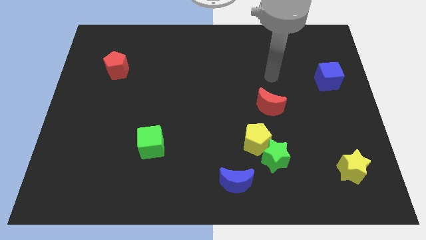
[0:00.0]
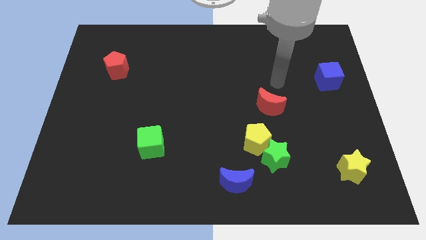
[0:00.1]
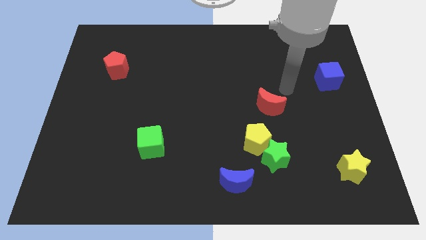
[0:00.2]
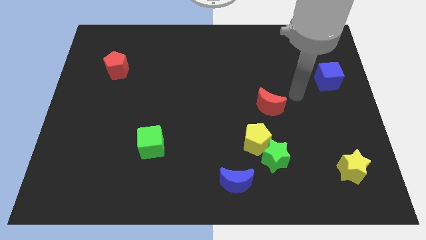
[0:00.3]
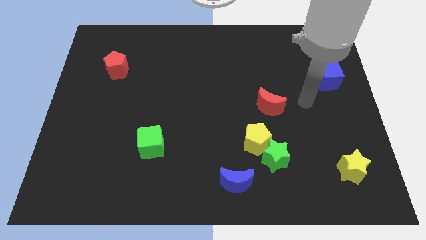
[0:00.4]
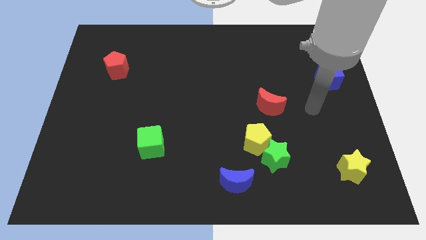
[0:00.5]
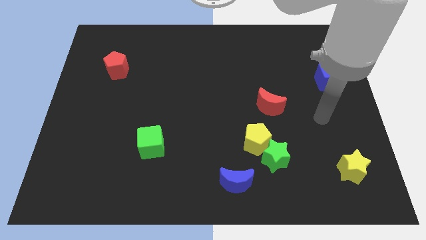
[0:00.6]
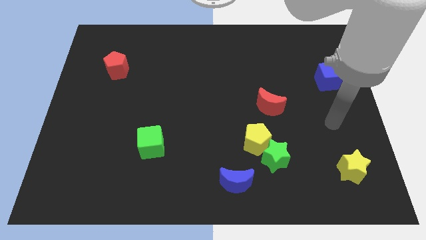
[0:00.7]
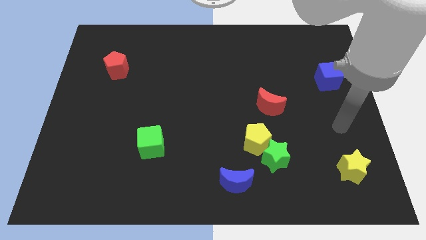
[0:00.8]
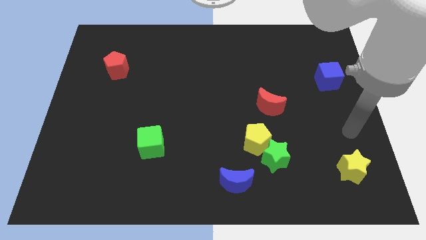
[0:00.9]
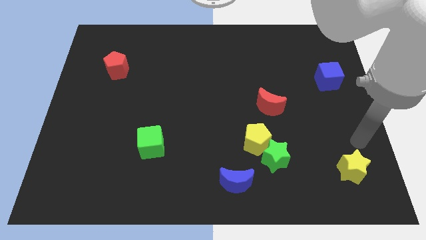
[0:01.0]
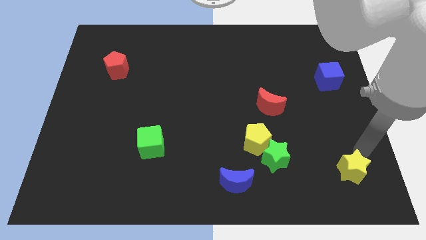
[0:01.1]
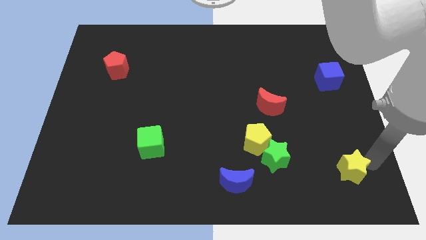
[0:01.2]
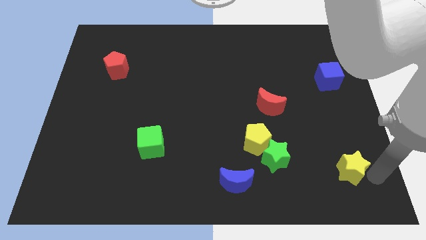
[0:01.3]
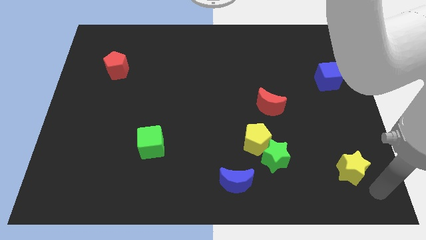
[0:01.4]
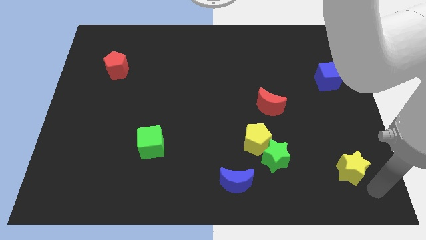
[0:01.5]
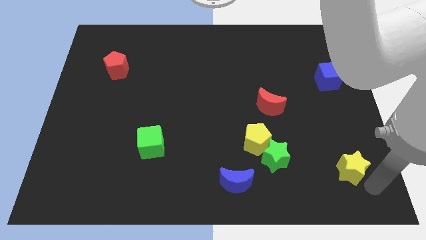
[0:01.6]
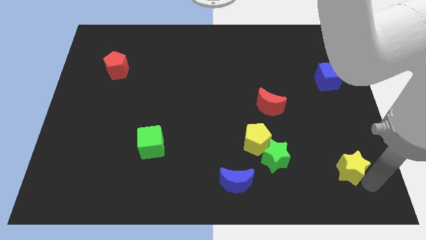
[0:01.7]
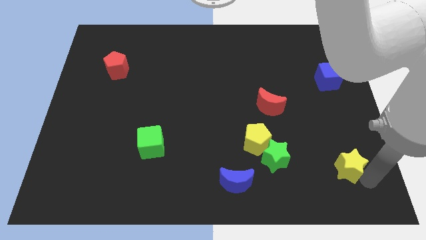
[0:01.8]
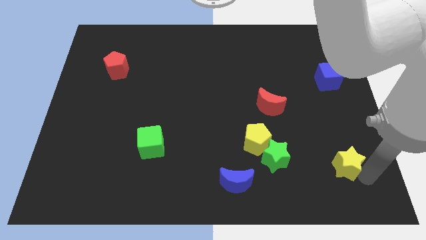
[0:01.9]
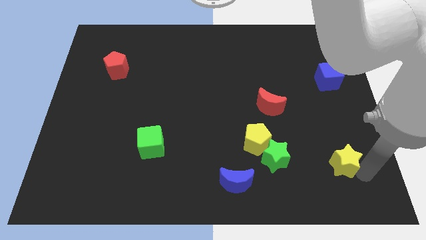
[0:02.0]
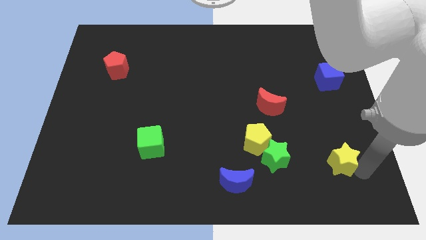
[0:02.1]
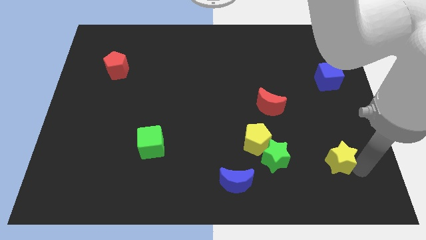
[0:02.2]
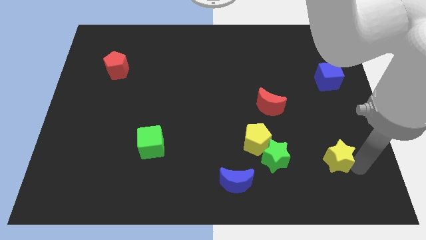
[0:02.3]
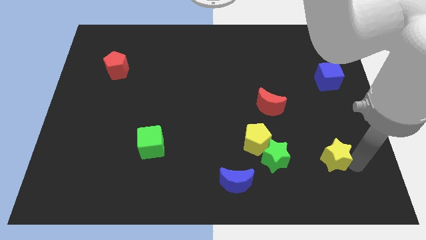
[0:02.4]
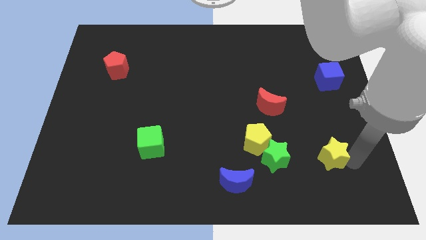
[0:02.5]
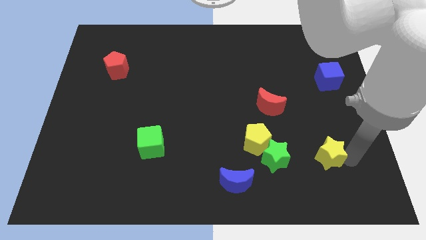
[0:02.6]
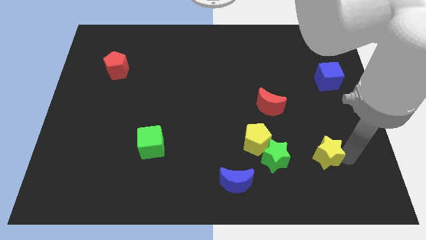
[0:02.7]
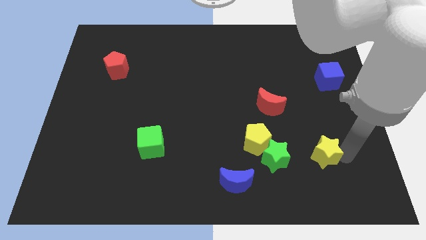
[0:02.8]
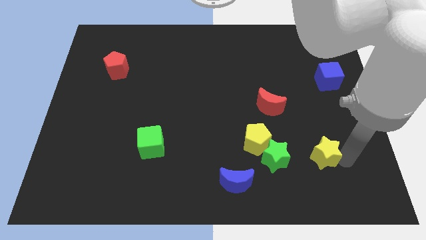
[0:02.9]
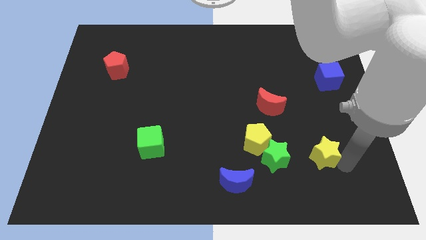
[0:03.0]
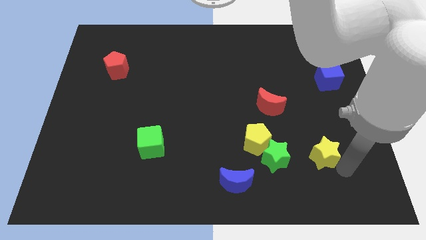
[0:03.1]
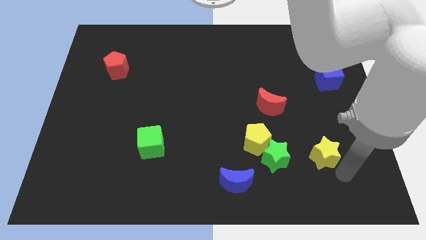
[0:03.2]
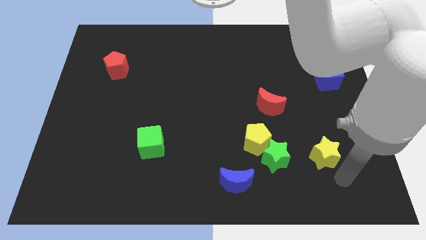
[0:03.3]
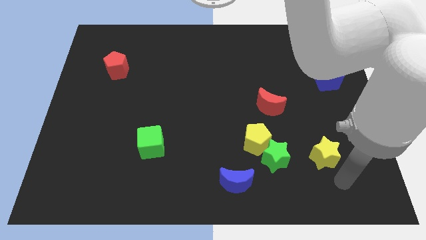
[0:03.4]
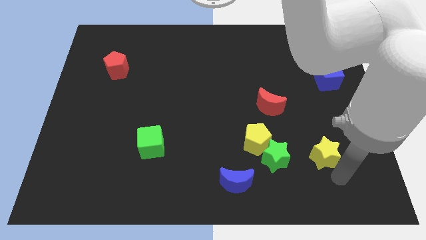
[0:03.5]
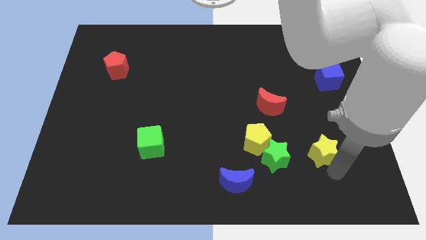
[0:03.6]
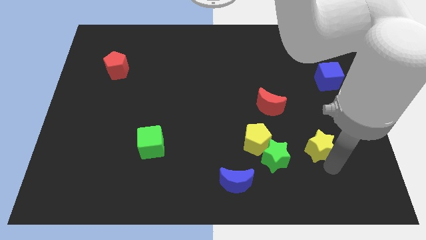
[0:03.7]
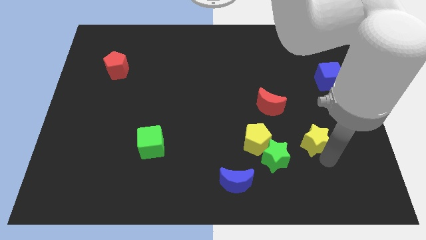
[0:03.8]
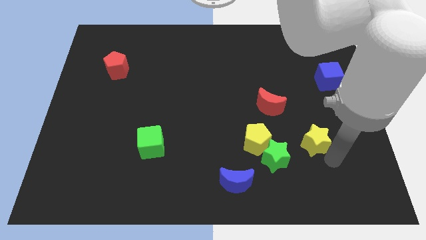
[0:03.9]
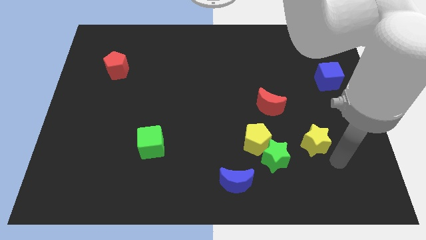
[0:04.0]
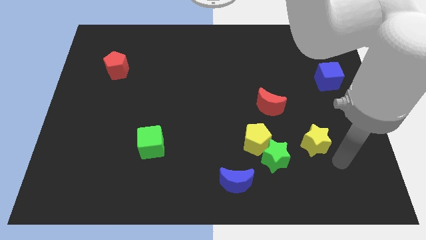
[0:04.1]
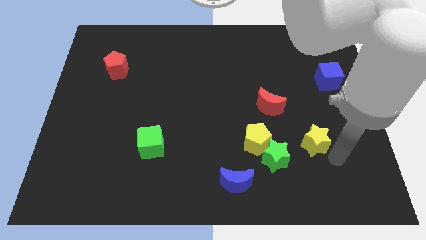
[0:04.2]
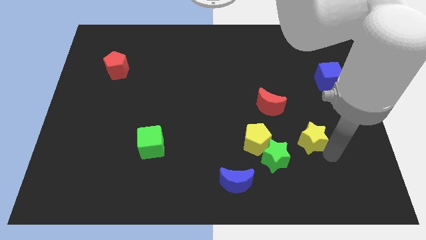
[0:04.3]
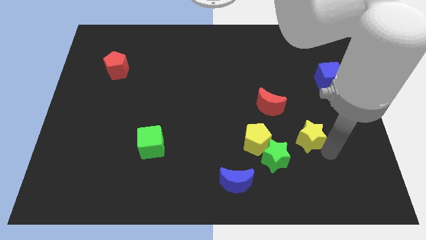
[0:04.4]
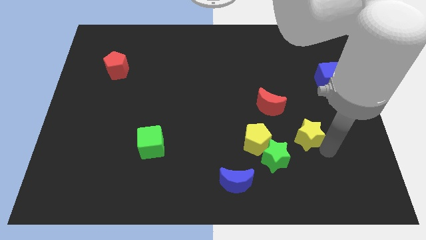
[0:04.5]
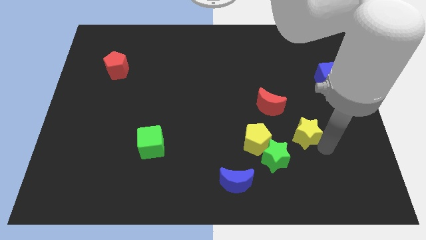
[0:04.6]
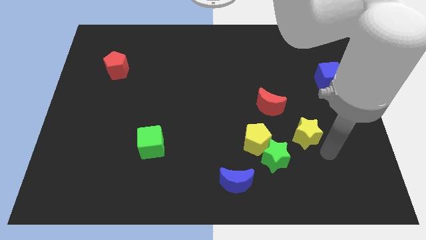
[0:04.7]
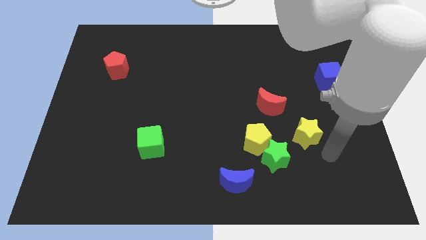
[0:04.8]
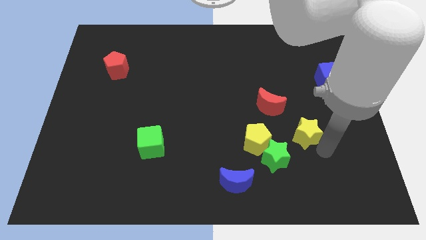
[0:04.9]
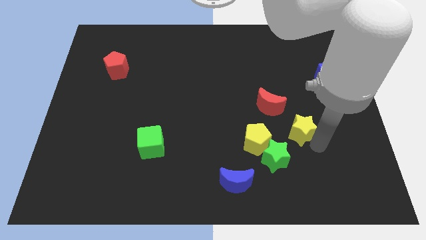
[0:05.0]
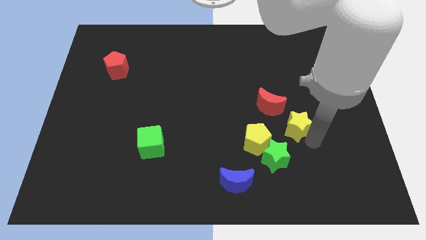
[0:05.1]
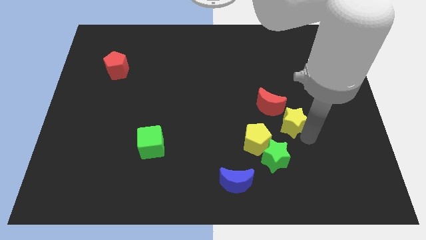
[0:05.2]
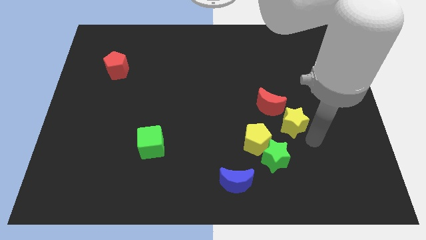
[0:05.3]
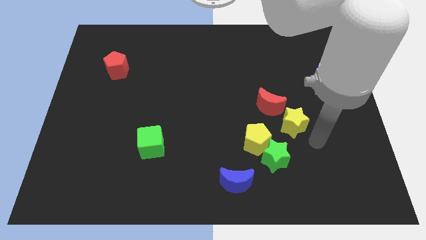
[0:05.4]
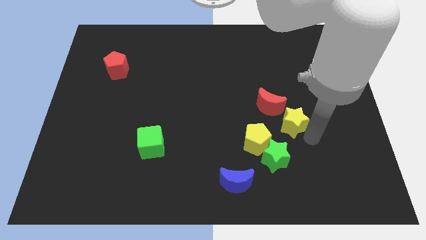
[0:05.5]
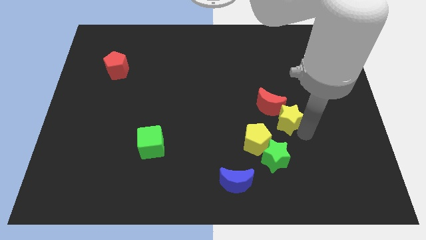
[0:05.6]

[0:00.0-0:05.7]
push the yellow star close to the red moon

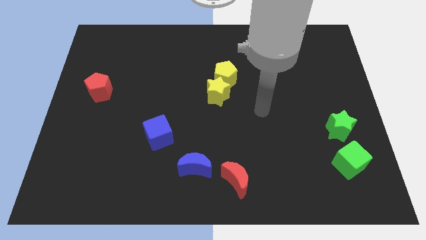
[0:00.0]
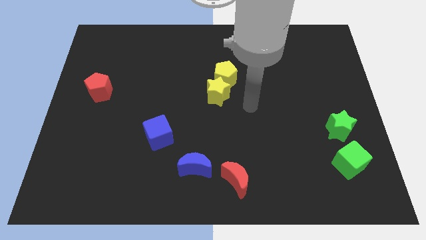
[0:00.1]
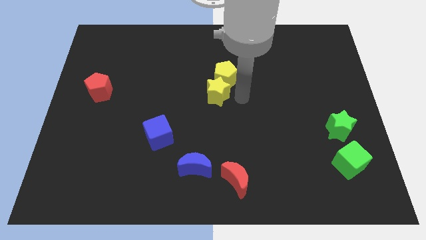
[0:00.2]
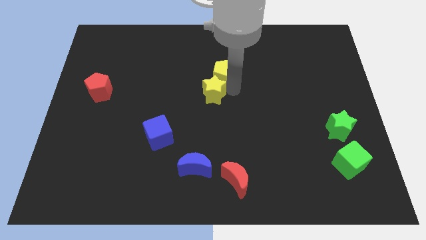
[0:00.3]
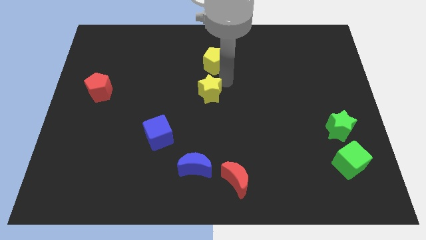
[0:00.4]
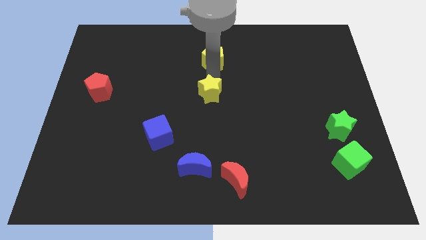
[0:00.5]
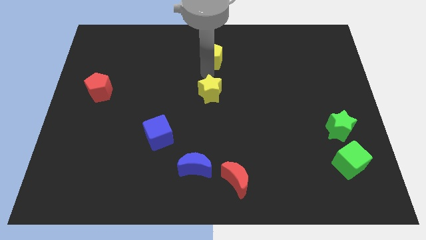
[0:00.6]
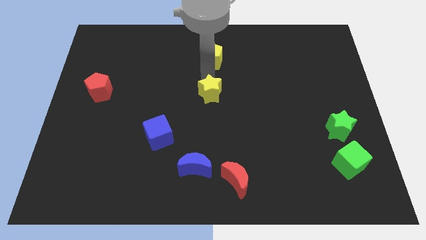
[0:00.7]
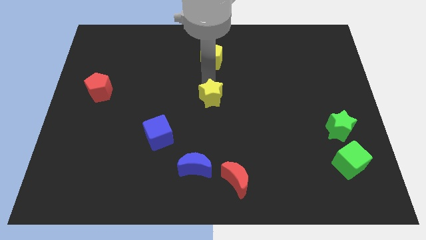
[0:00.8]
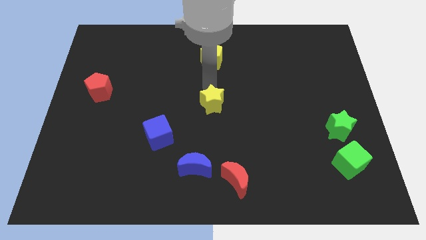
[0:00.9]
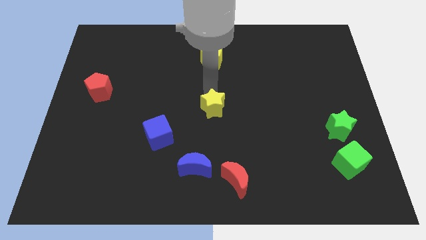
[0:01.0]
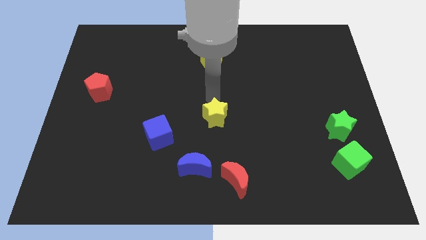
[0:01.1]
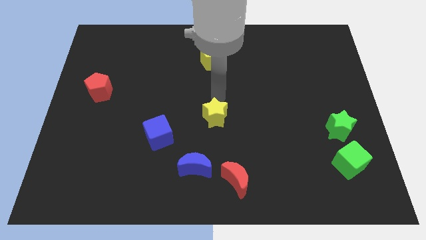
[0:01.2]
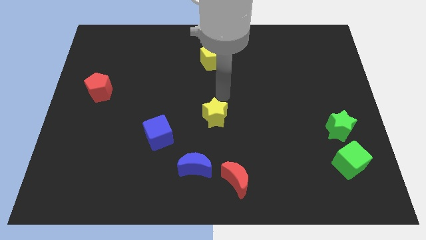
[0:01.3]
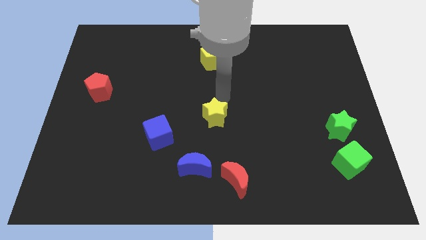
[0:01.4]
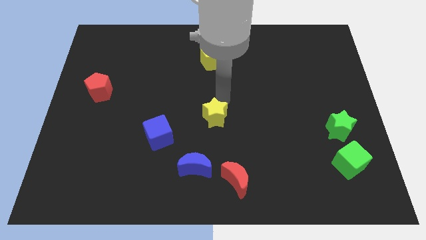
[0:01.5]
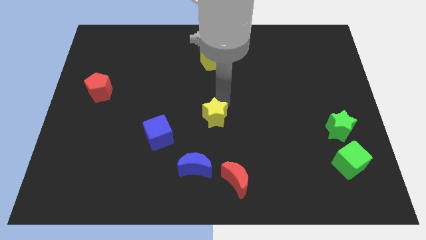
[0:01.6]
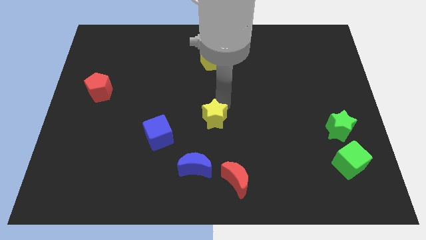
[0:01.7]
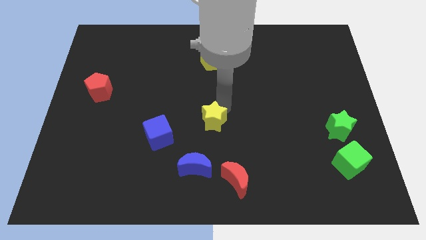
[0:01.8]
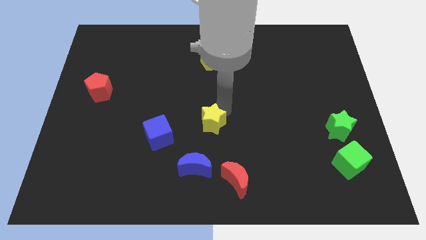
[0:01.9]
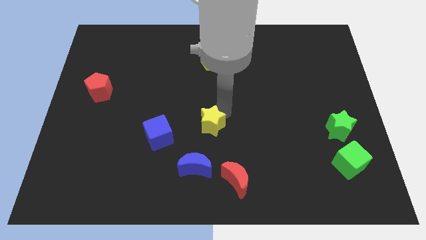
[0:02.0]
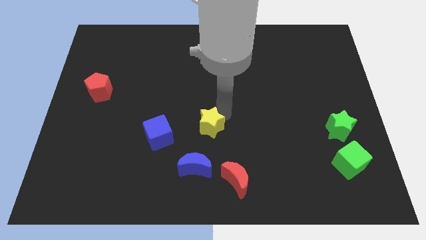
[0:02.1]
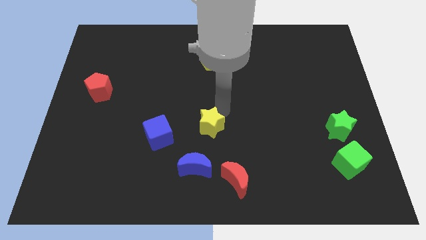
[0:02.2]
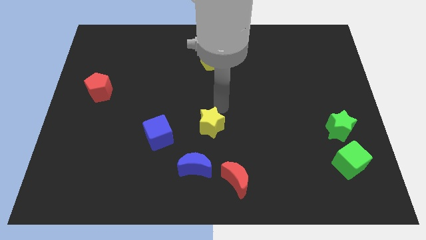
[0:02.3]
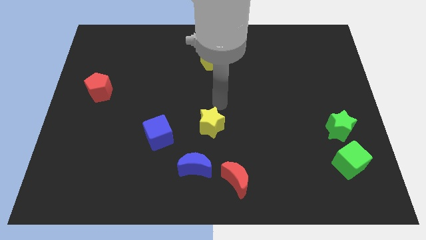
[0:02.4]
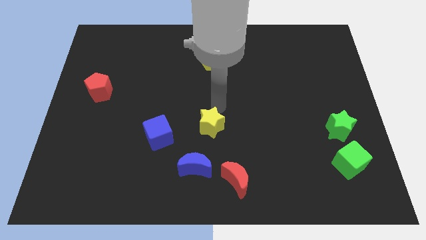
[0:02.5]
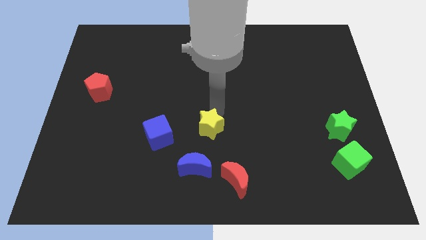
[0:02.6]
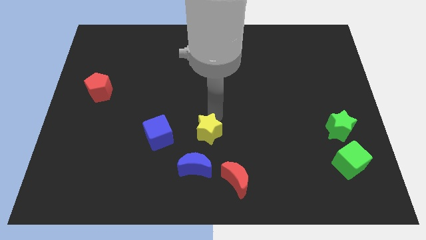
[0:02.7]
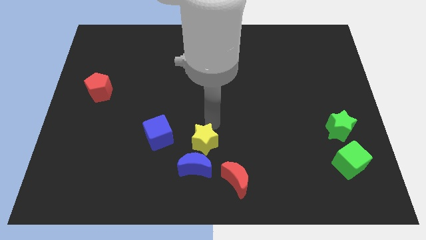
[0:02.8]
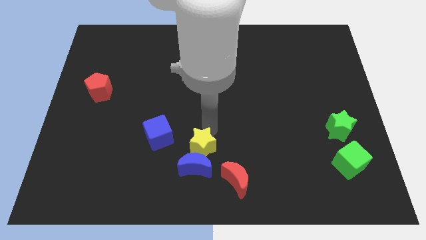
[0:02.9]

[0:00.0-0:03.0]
move the yellow star to the blue moon
